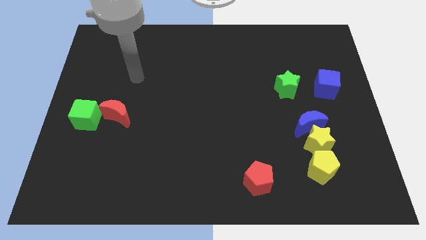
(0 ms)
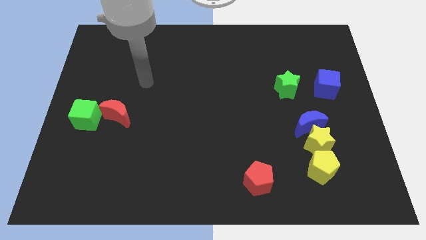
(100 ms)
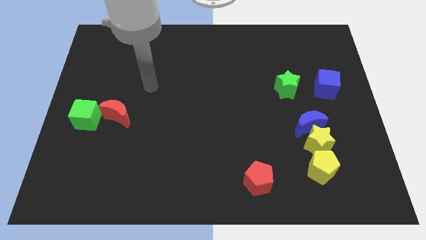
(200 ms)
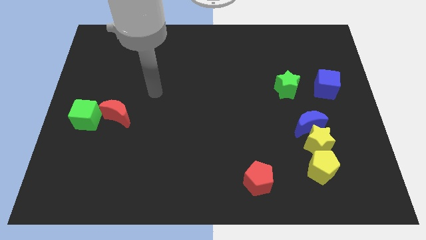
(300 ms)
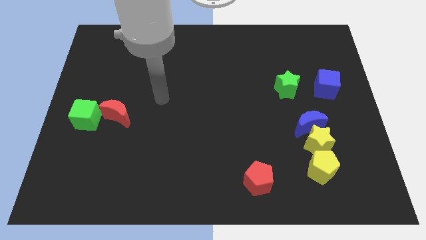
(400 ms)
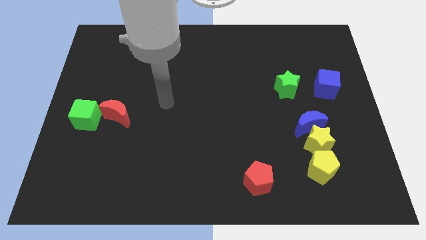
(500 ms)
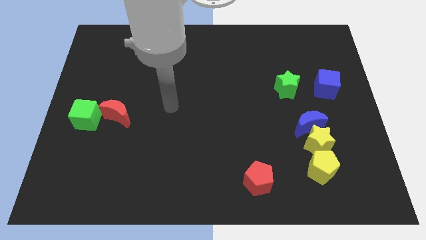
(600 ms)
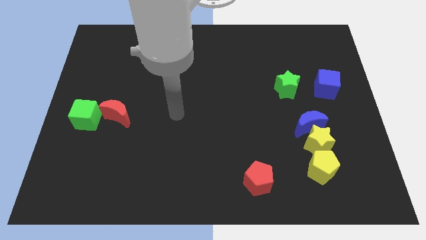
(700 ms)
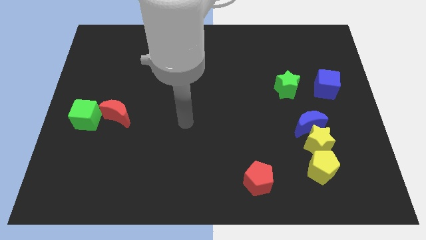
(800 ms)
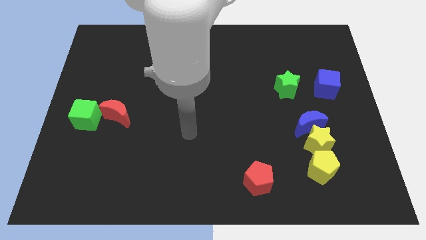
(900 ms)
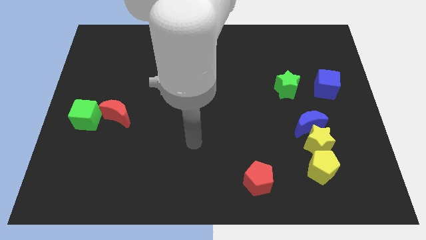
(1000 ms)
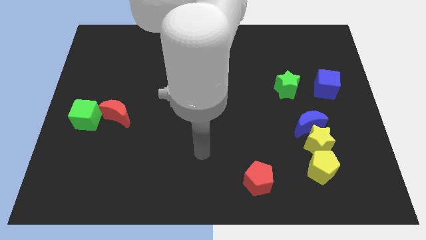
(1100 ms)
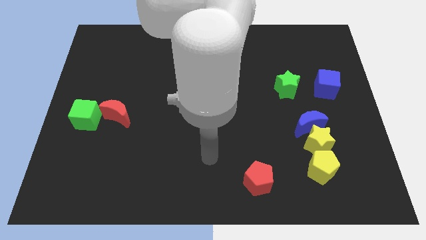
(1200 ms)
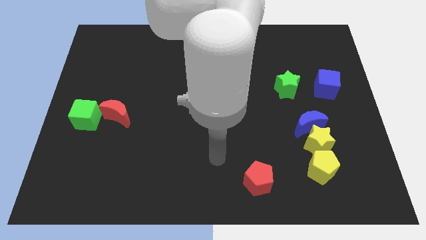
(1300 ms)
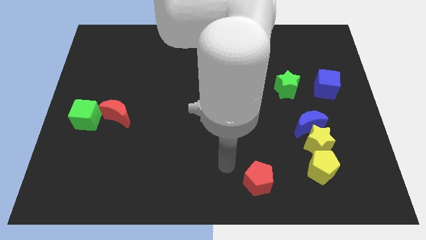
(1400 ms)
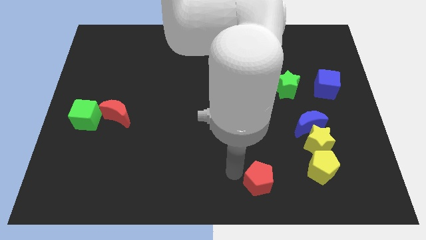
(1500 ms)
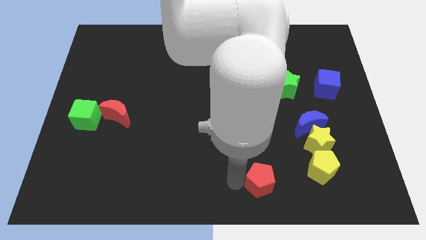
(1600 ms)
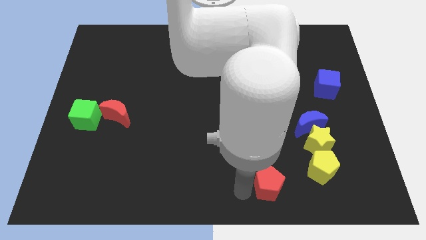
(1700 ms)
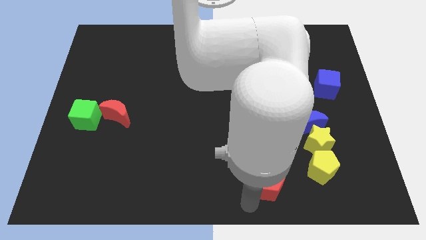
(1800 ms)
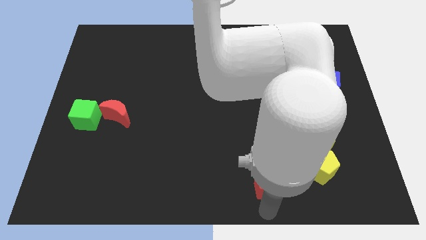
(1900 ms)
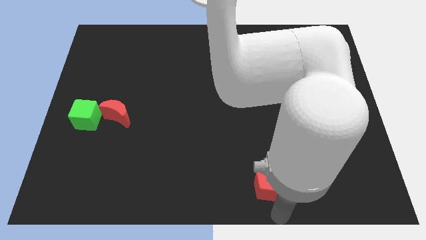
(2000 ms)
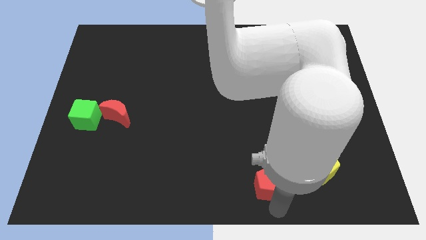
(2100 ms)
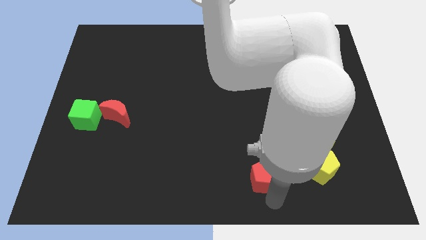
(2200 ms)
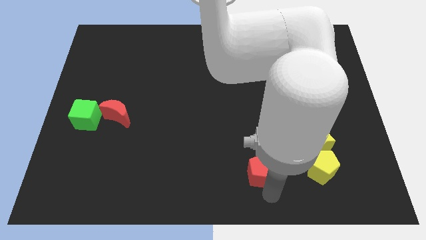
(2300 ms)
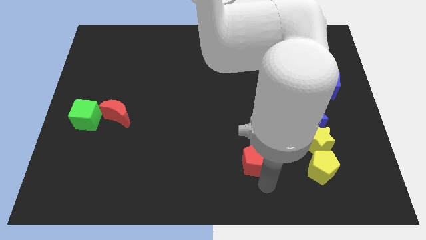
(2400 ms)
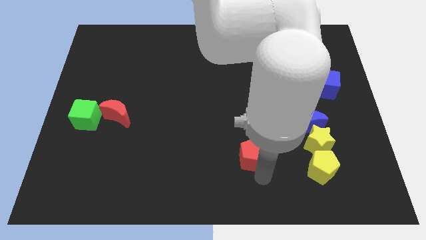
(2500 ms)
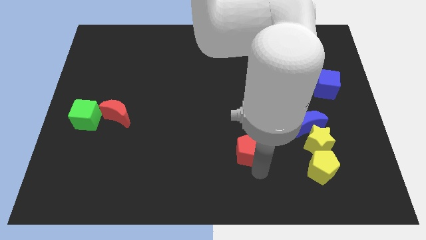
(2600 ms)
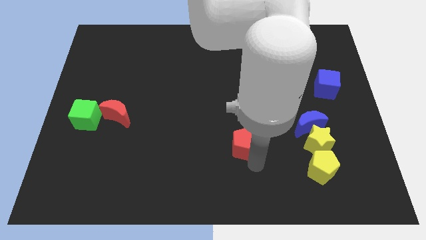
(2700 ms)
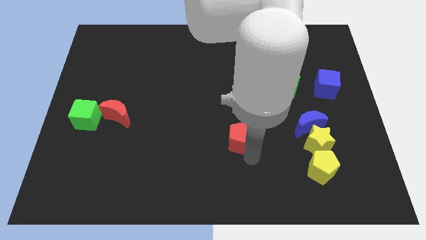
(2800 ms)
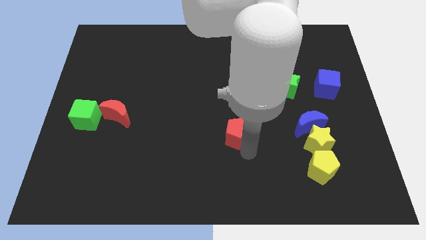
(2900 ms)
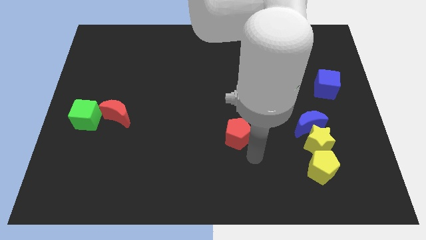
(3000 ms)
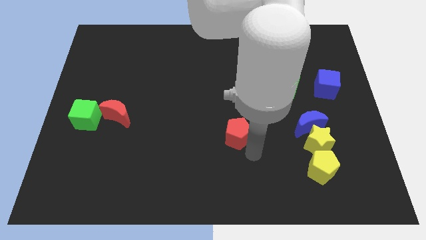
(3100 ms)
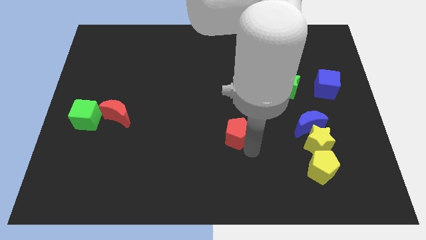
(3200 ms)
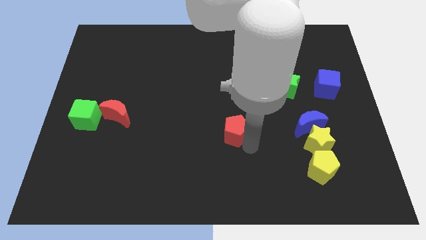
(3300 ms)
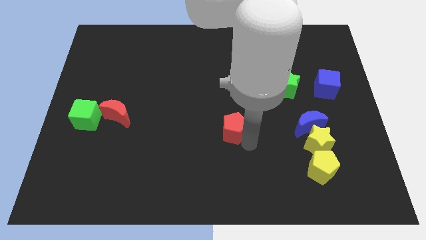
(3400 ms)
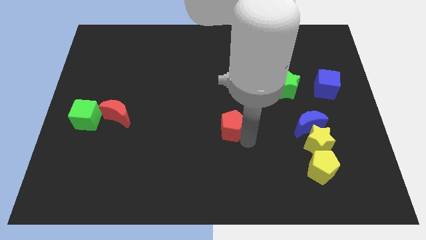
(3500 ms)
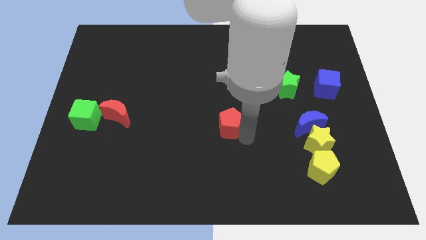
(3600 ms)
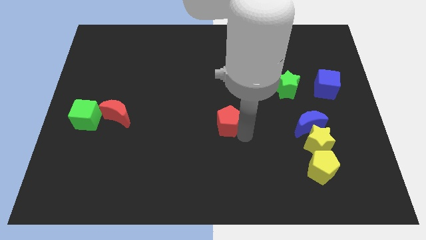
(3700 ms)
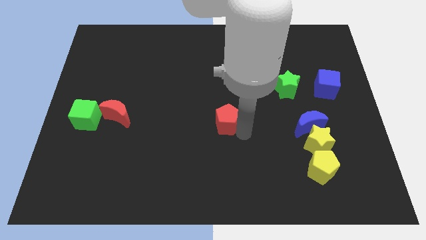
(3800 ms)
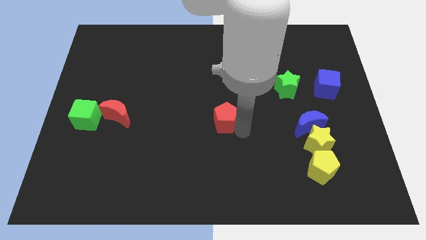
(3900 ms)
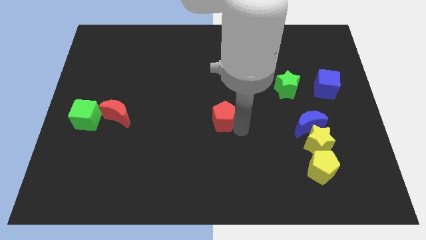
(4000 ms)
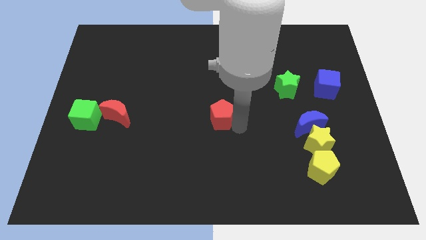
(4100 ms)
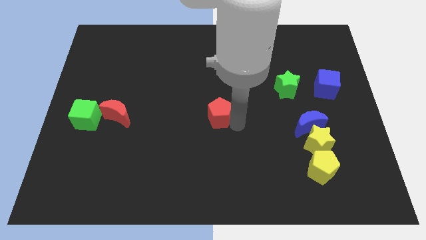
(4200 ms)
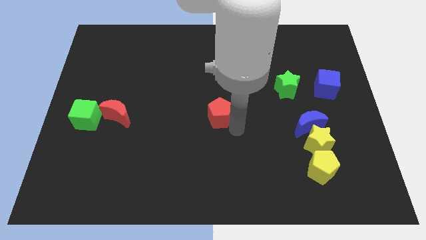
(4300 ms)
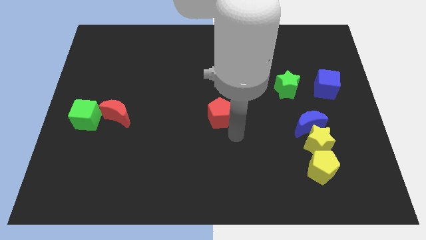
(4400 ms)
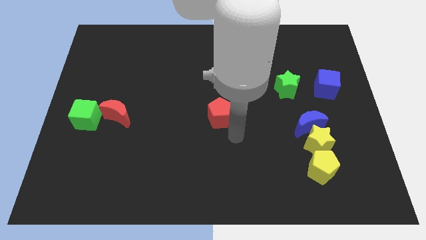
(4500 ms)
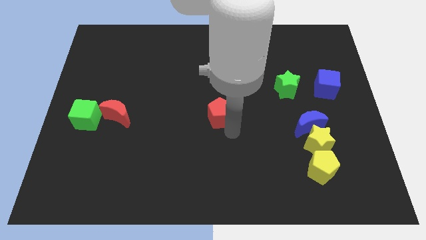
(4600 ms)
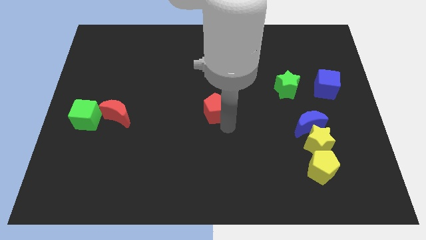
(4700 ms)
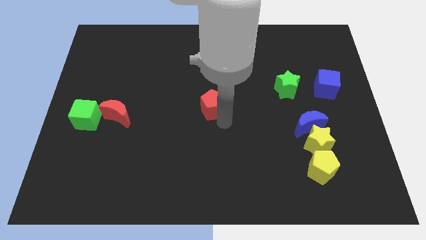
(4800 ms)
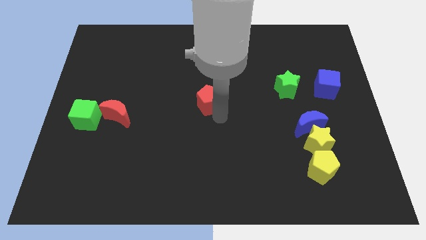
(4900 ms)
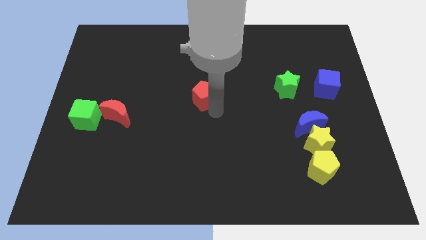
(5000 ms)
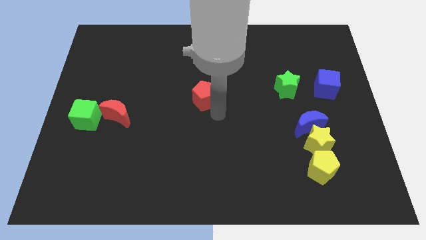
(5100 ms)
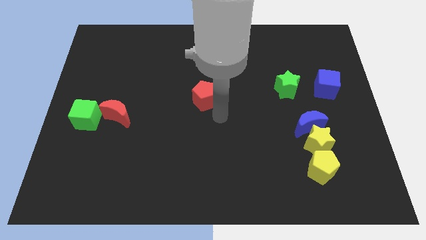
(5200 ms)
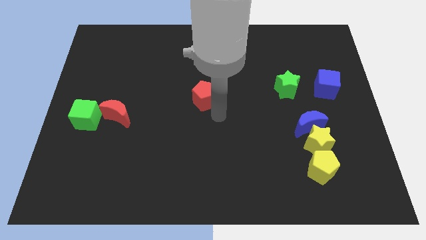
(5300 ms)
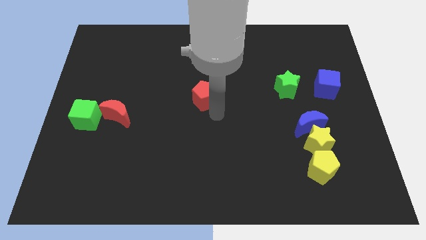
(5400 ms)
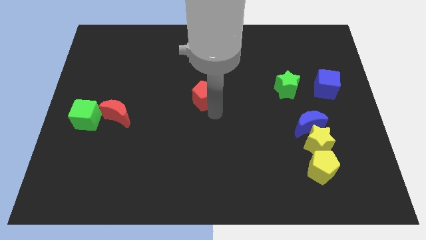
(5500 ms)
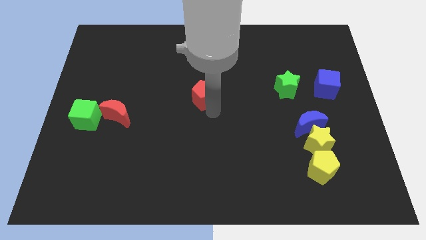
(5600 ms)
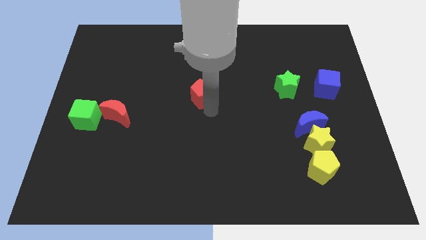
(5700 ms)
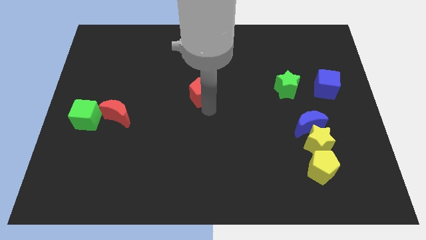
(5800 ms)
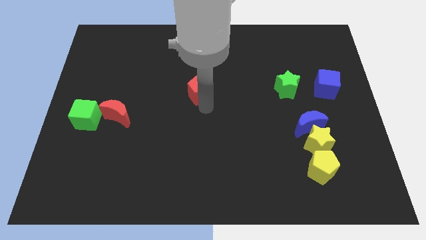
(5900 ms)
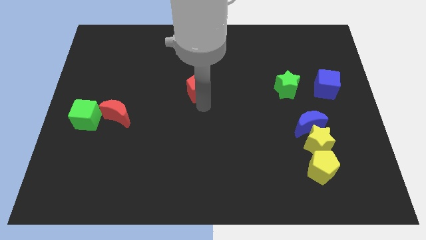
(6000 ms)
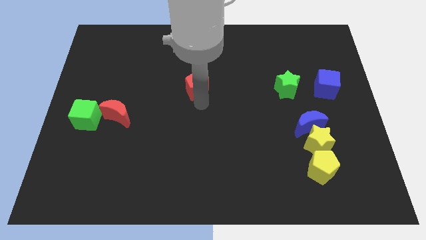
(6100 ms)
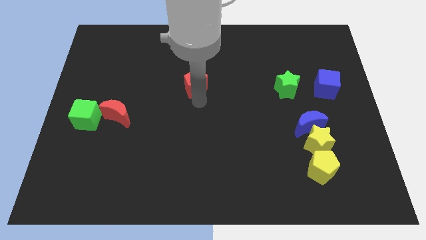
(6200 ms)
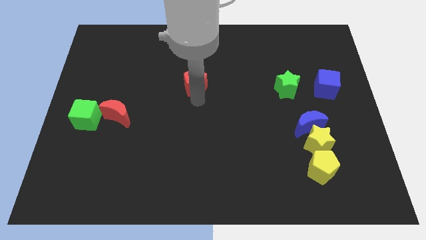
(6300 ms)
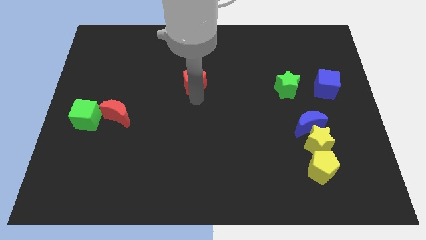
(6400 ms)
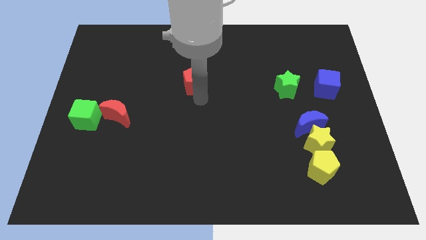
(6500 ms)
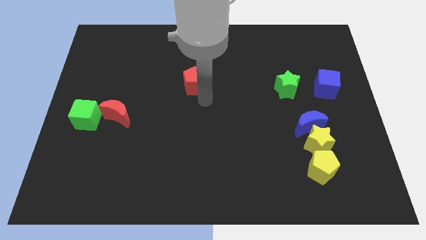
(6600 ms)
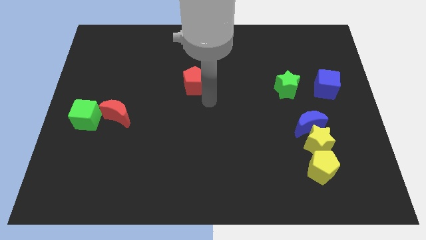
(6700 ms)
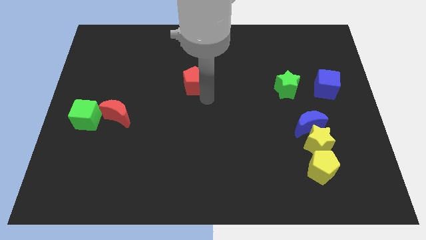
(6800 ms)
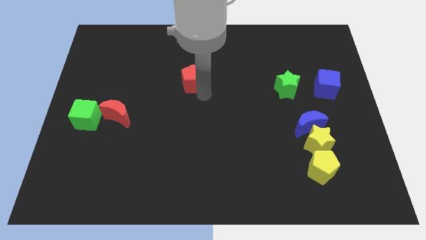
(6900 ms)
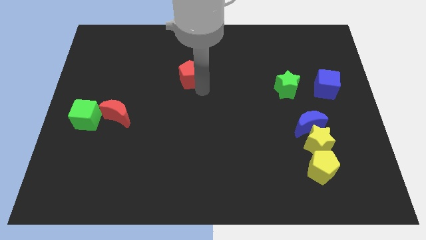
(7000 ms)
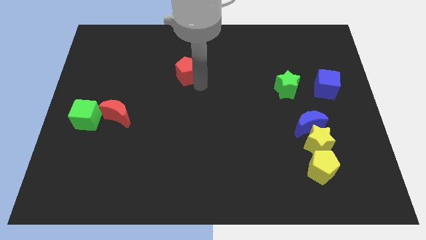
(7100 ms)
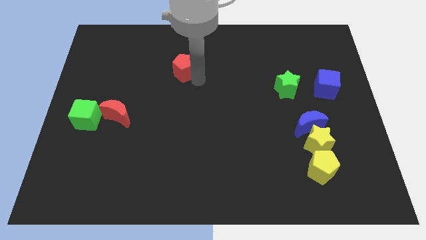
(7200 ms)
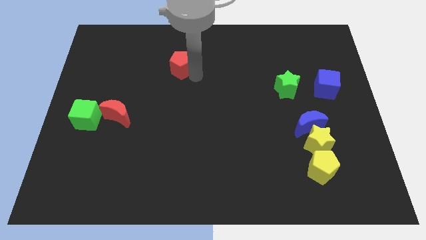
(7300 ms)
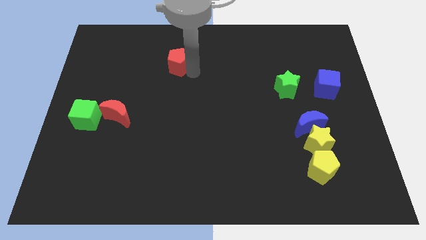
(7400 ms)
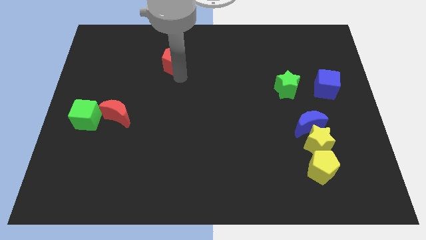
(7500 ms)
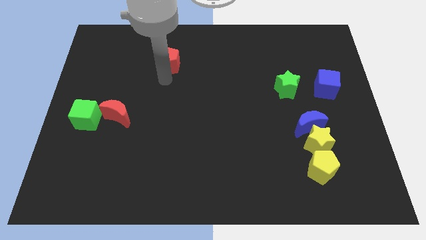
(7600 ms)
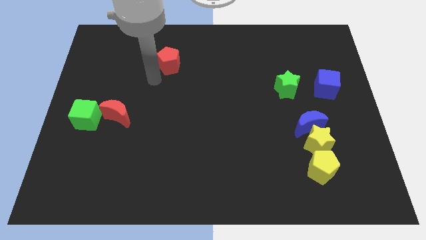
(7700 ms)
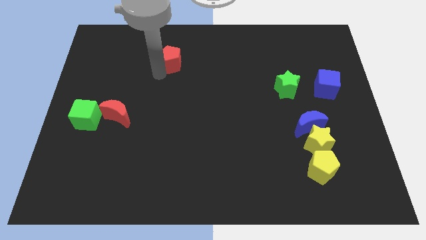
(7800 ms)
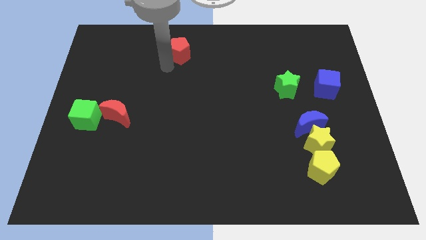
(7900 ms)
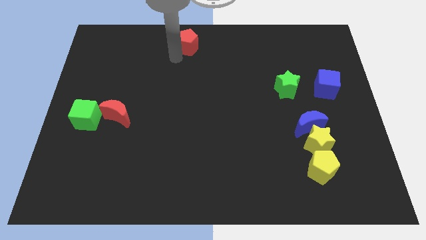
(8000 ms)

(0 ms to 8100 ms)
move the red pentagon to the top side
